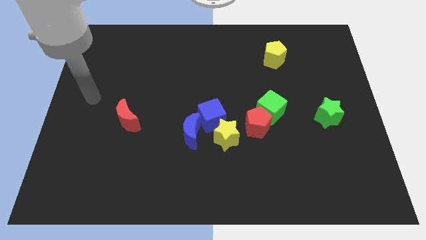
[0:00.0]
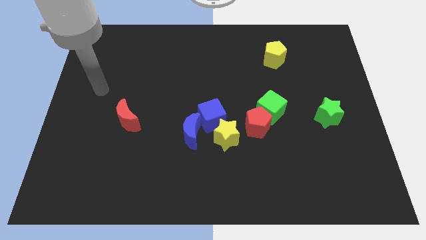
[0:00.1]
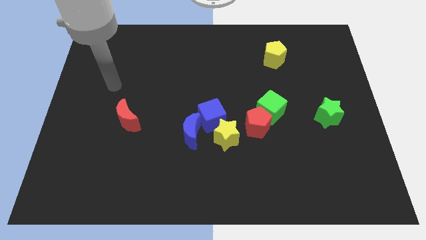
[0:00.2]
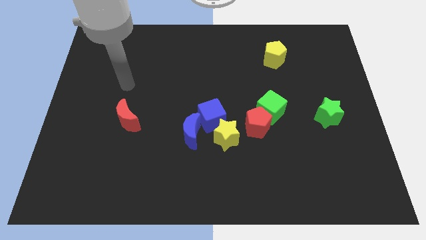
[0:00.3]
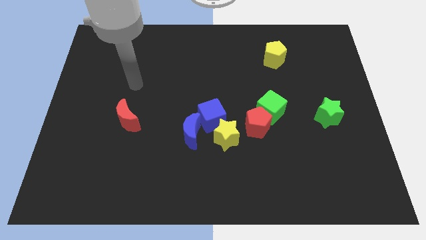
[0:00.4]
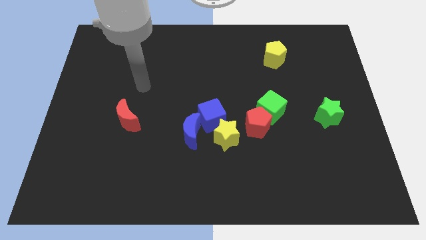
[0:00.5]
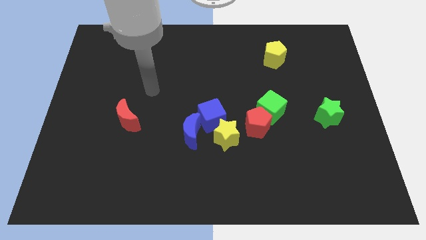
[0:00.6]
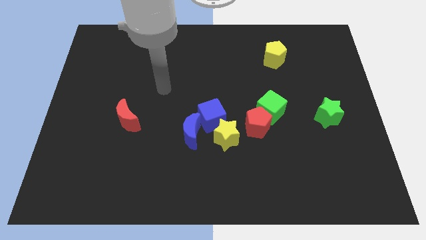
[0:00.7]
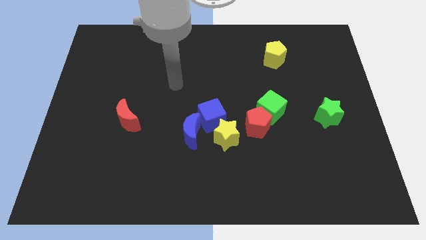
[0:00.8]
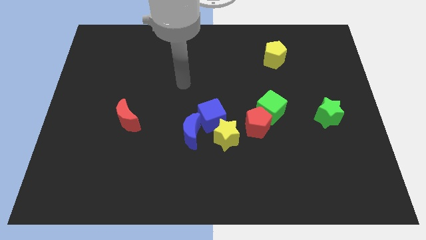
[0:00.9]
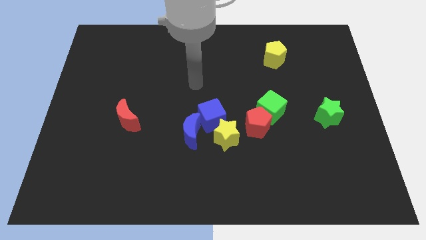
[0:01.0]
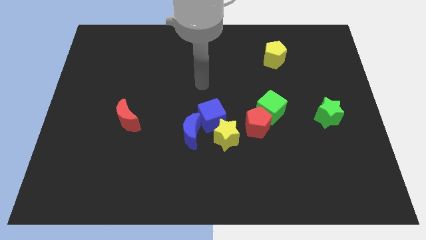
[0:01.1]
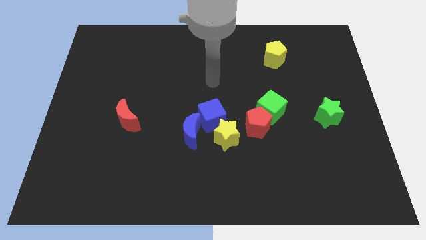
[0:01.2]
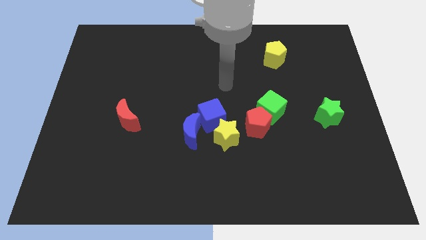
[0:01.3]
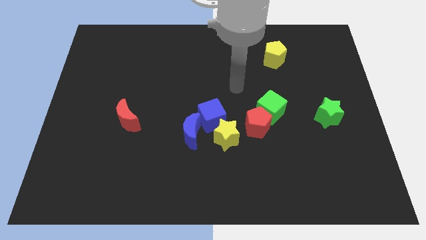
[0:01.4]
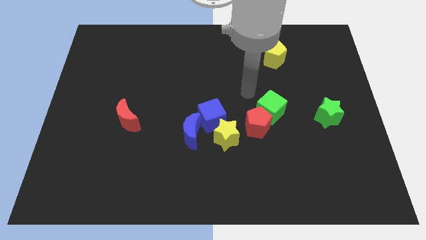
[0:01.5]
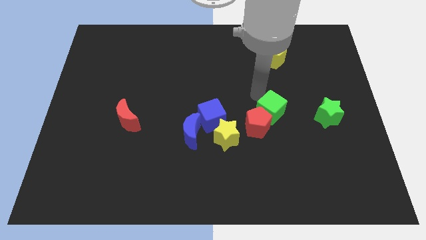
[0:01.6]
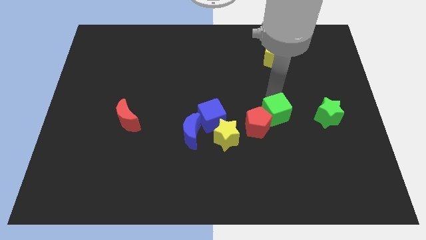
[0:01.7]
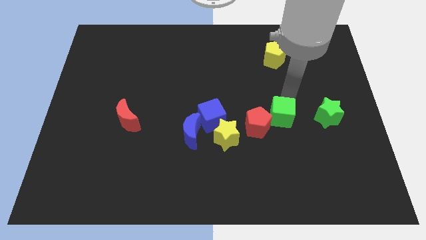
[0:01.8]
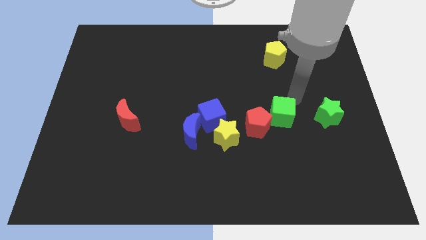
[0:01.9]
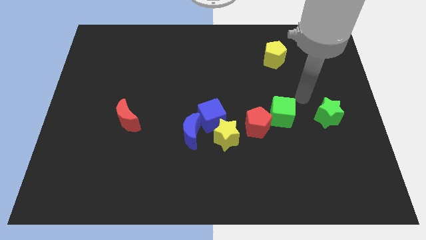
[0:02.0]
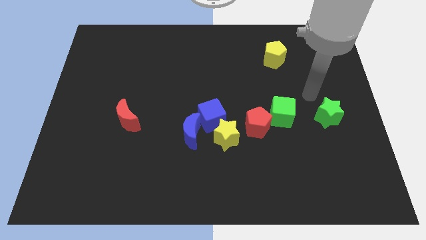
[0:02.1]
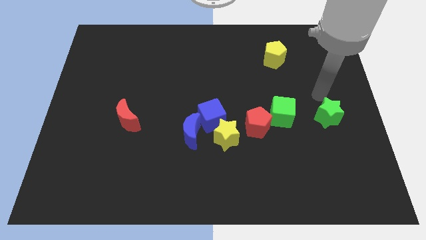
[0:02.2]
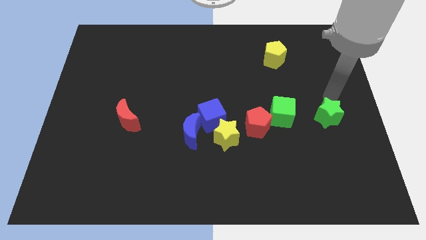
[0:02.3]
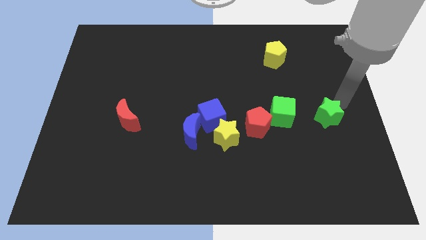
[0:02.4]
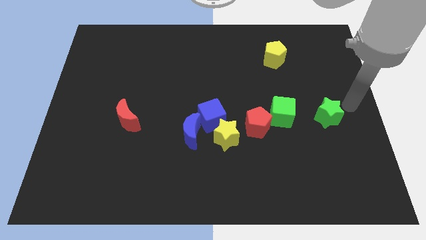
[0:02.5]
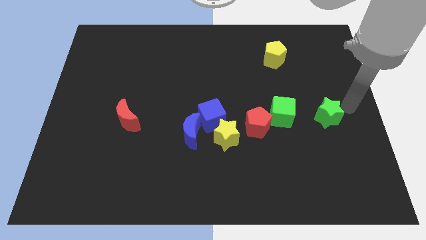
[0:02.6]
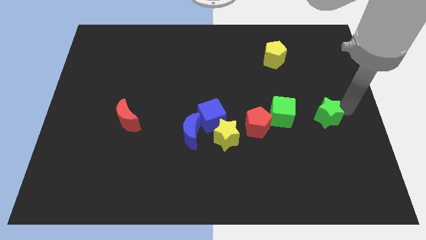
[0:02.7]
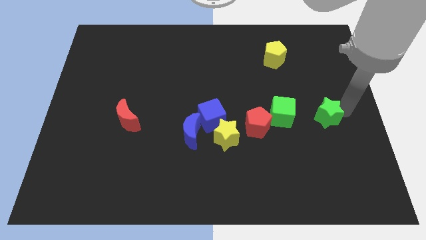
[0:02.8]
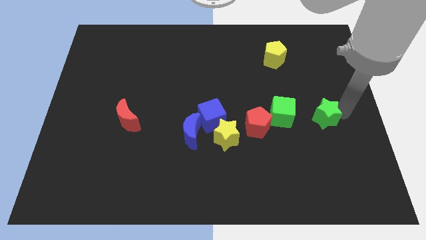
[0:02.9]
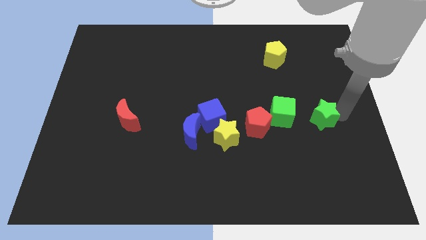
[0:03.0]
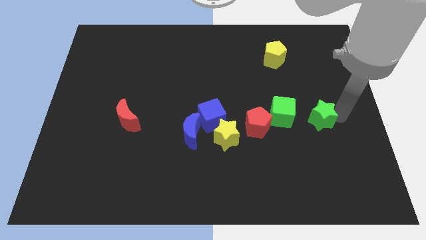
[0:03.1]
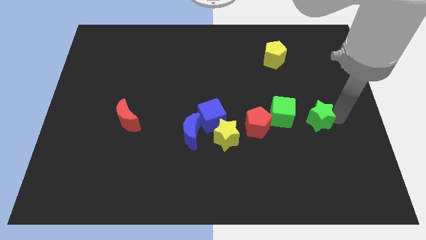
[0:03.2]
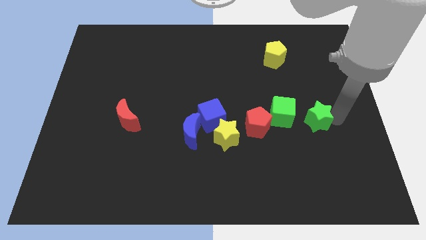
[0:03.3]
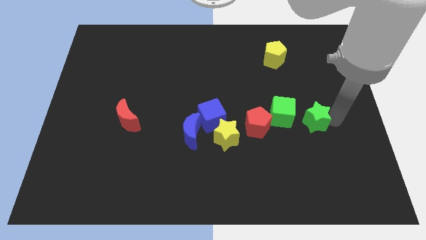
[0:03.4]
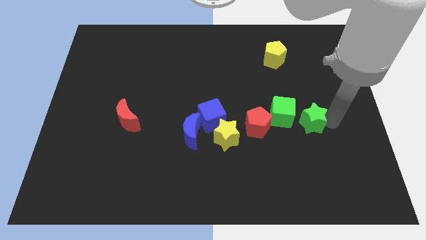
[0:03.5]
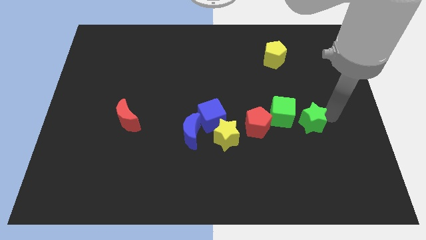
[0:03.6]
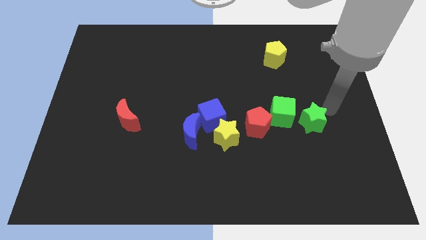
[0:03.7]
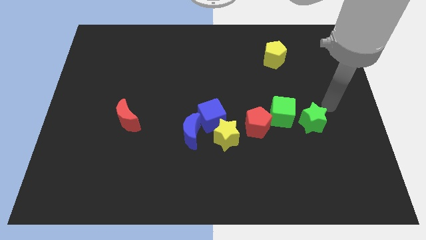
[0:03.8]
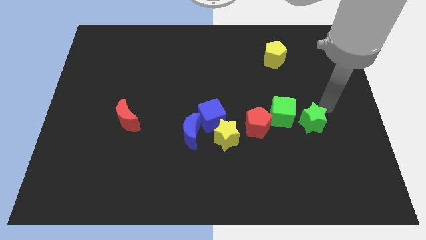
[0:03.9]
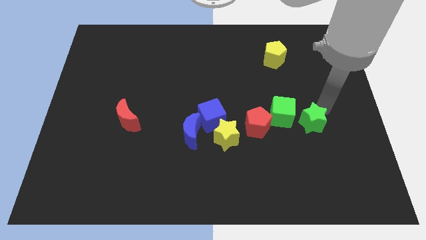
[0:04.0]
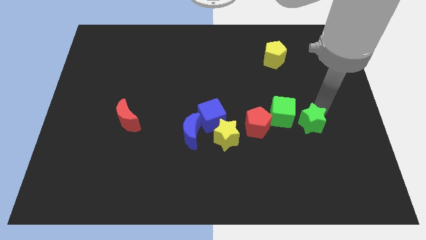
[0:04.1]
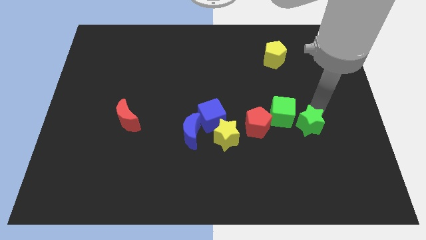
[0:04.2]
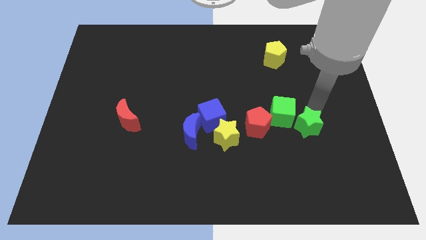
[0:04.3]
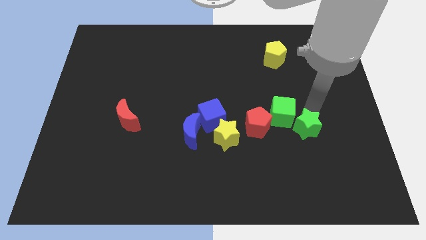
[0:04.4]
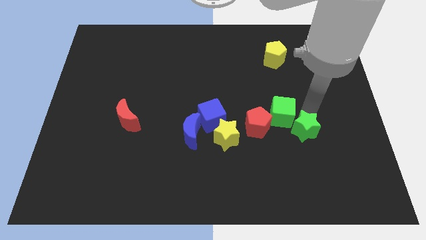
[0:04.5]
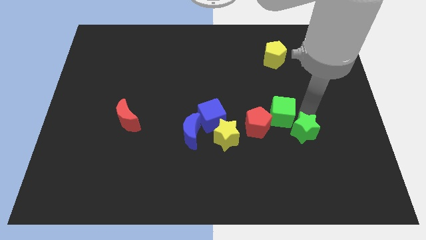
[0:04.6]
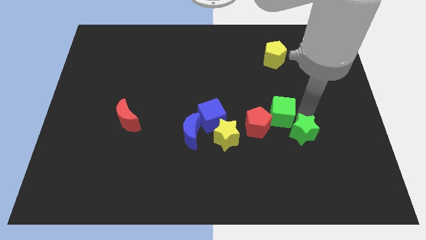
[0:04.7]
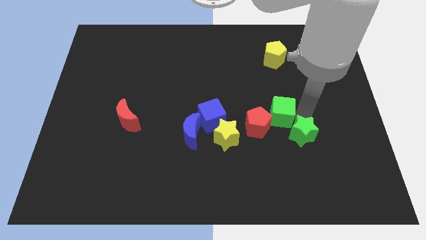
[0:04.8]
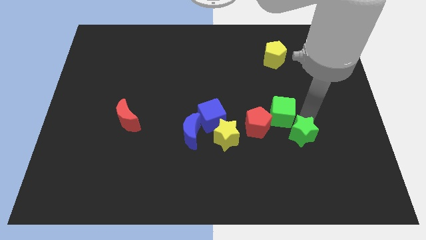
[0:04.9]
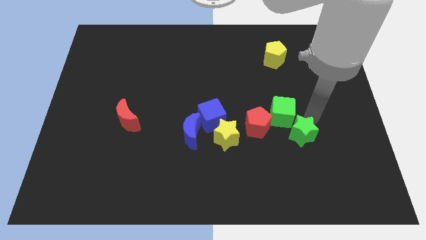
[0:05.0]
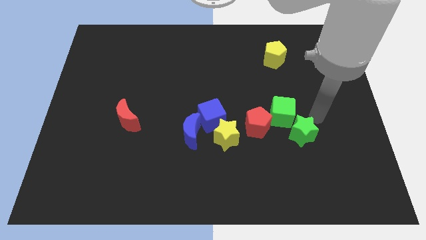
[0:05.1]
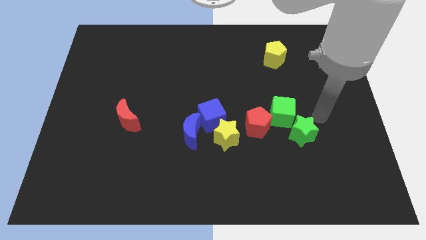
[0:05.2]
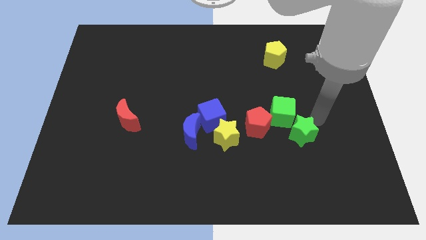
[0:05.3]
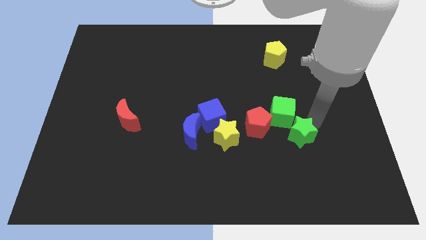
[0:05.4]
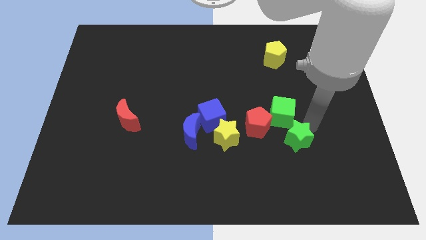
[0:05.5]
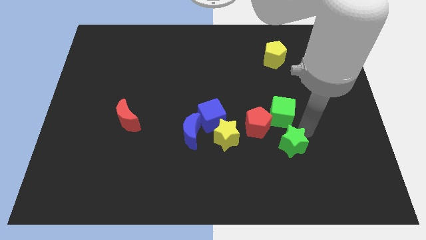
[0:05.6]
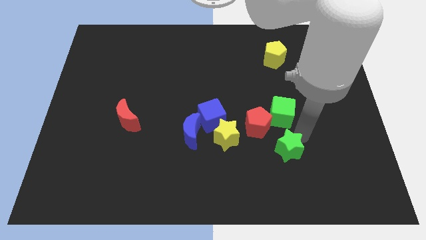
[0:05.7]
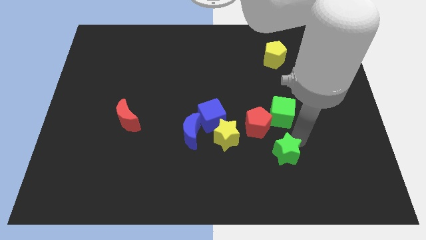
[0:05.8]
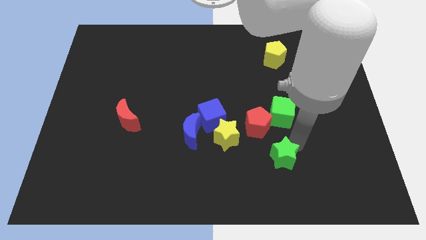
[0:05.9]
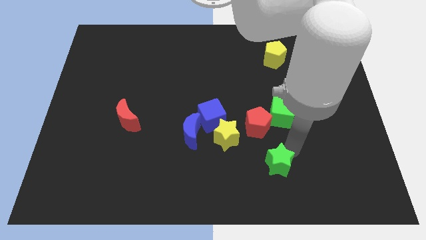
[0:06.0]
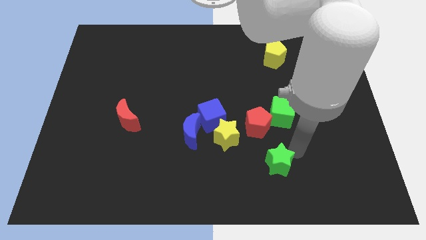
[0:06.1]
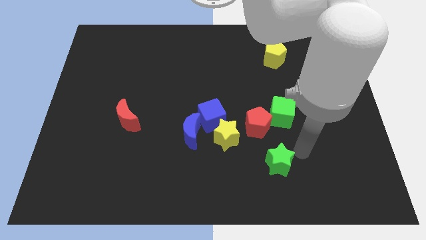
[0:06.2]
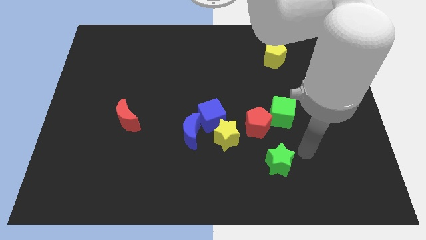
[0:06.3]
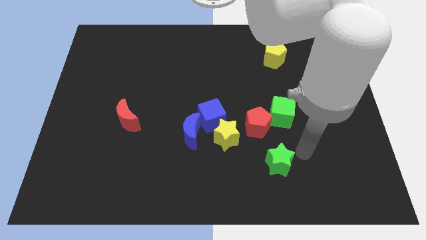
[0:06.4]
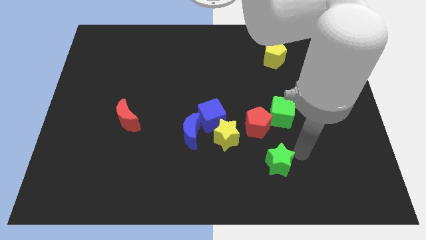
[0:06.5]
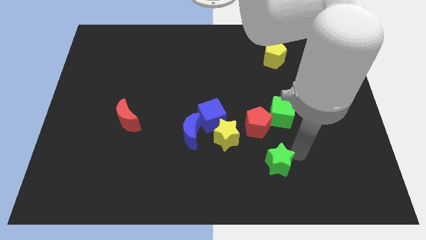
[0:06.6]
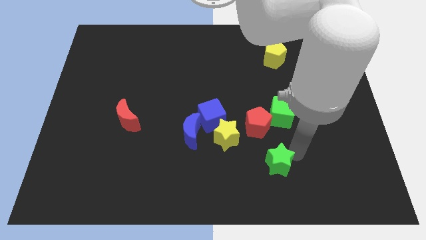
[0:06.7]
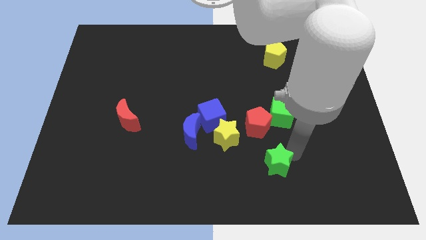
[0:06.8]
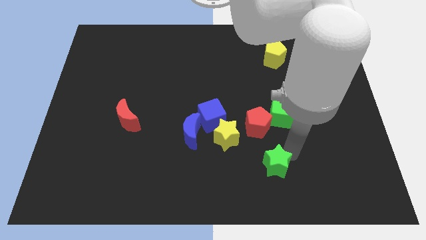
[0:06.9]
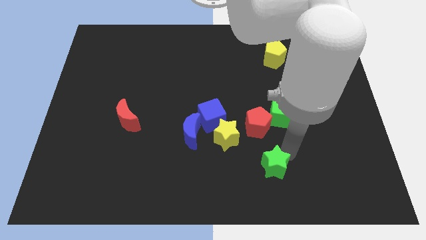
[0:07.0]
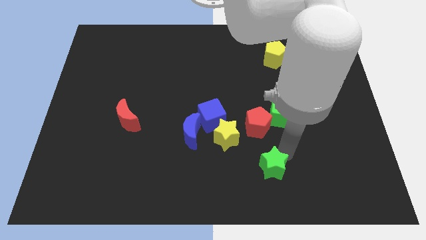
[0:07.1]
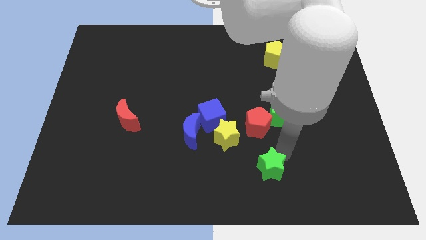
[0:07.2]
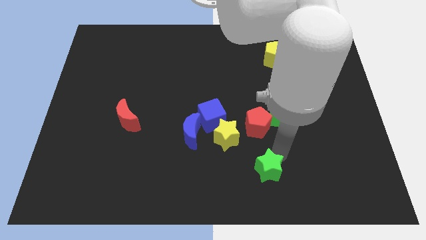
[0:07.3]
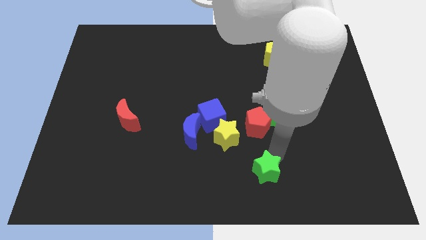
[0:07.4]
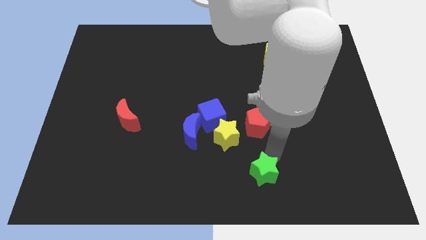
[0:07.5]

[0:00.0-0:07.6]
put the green star to the bottom side
